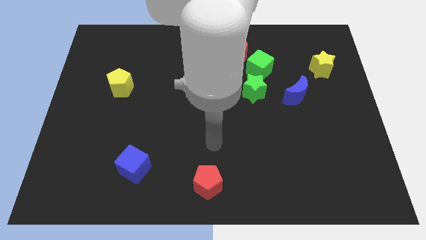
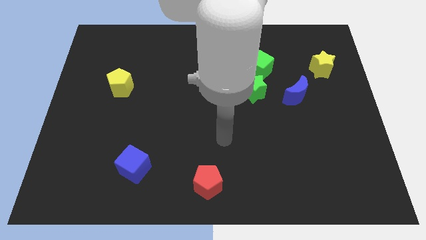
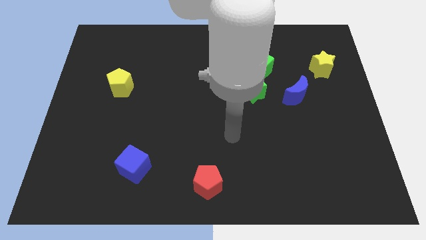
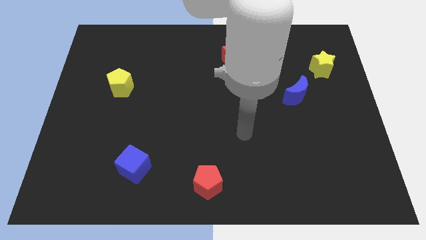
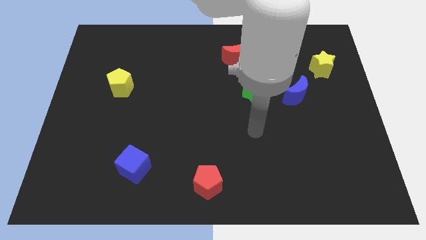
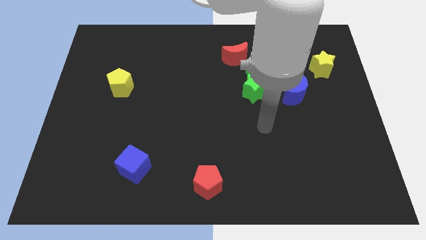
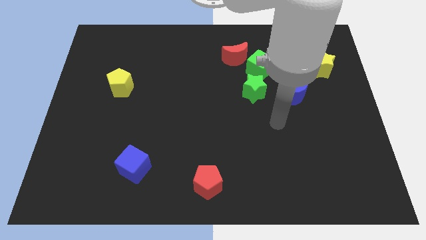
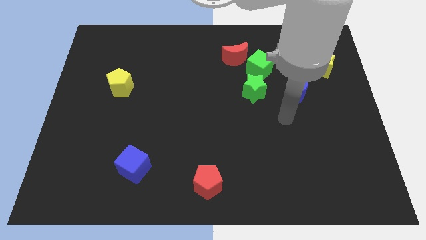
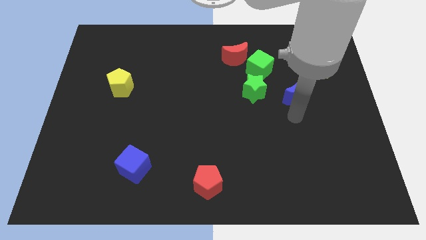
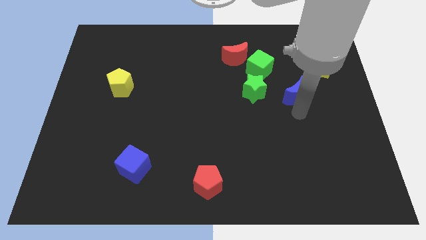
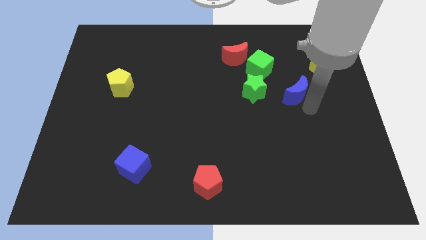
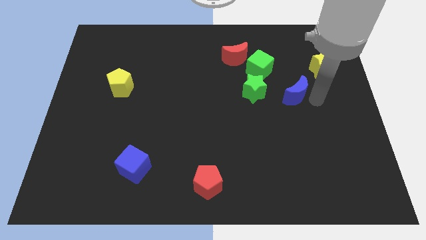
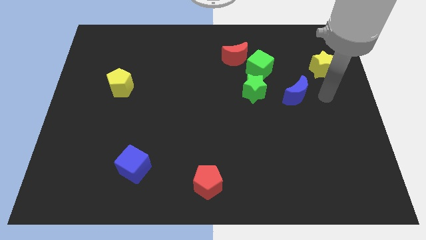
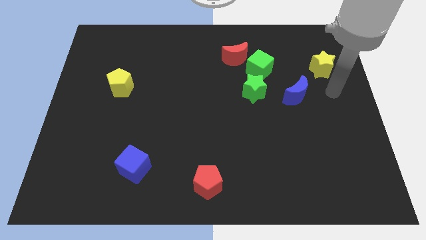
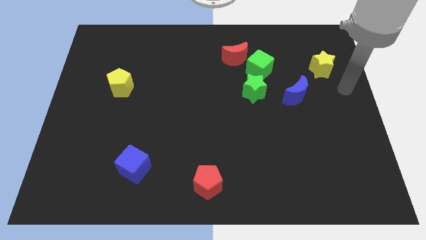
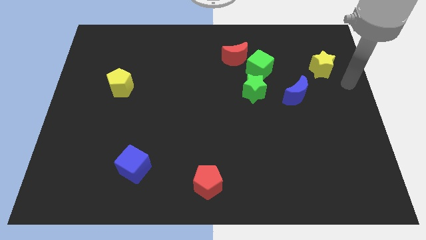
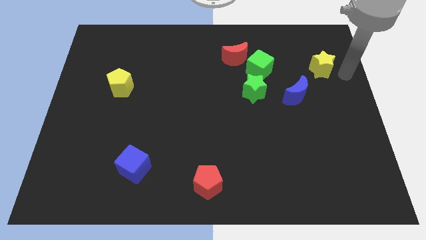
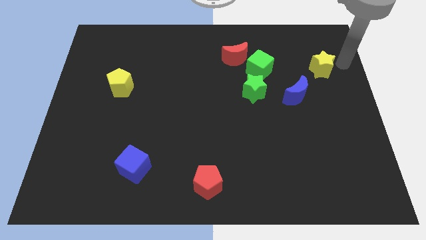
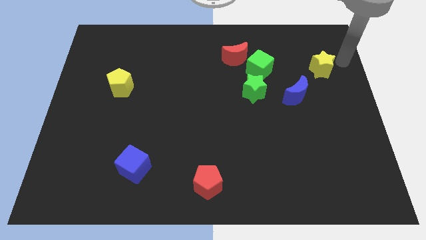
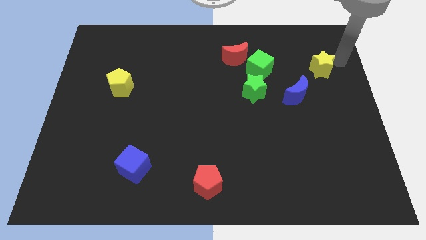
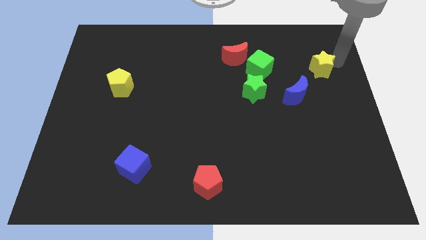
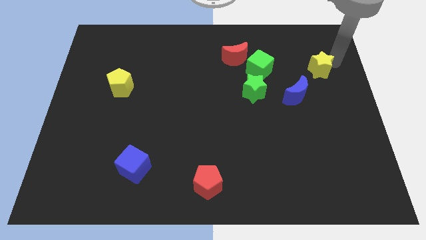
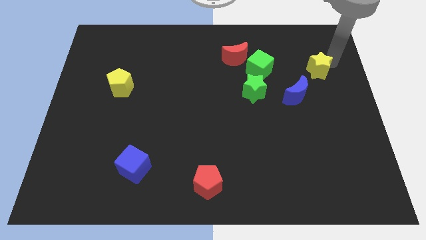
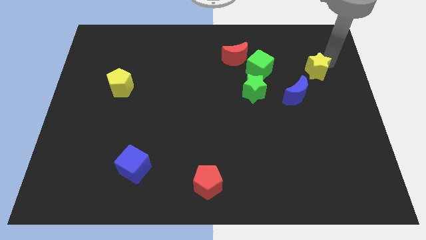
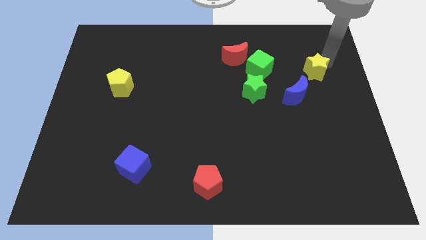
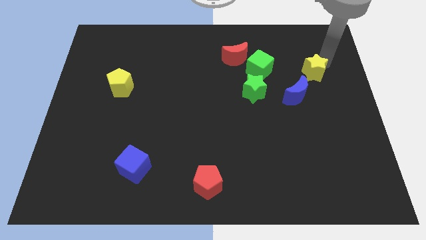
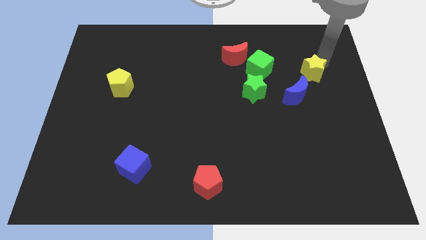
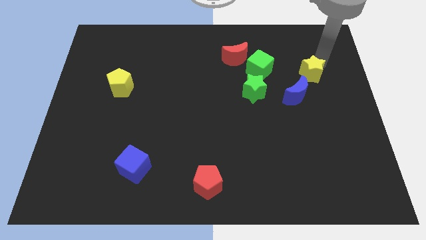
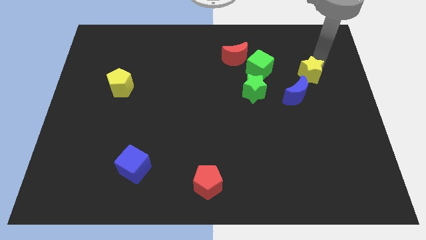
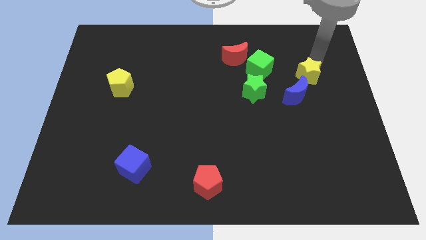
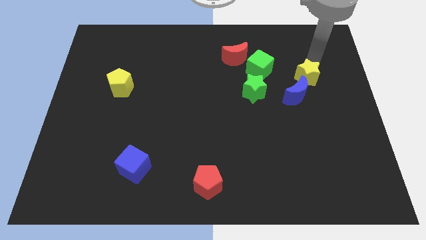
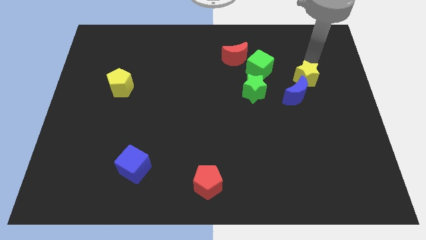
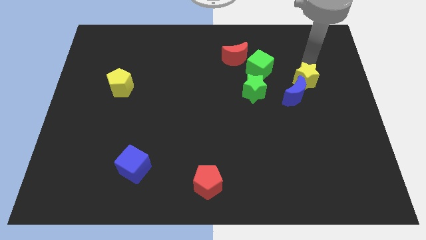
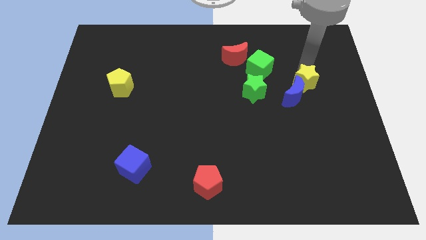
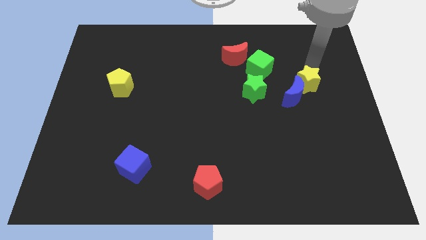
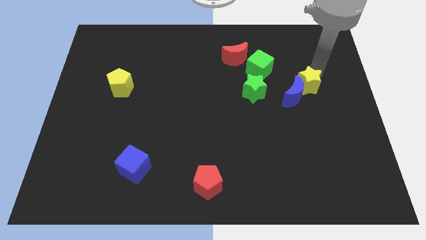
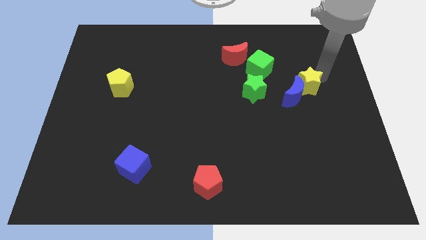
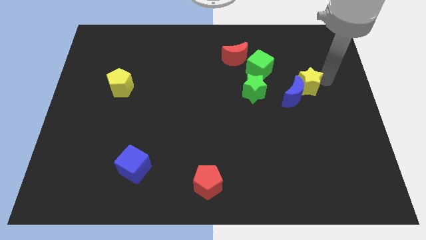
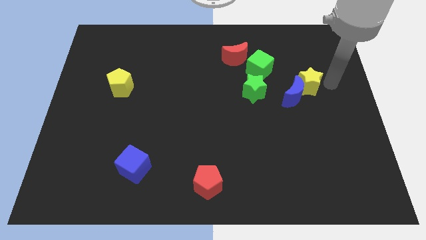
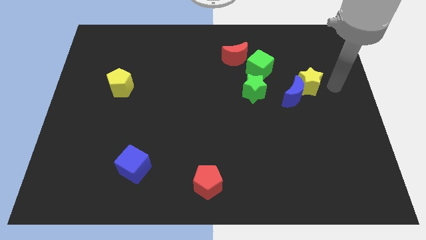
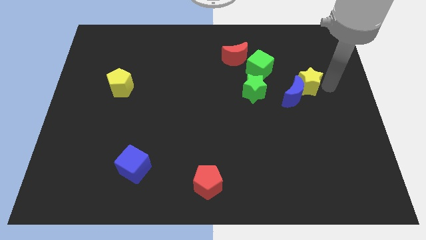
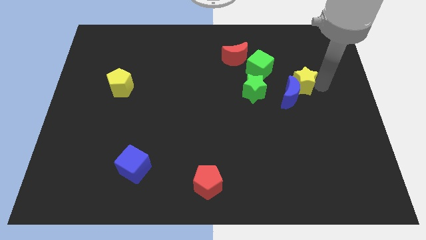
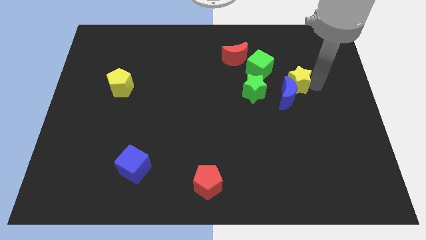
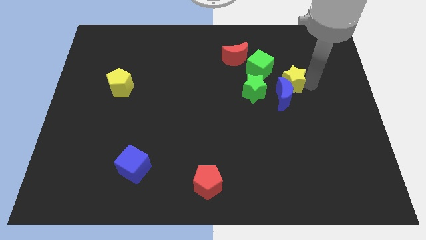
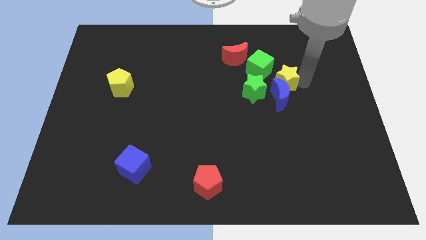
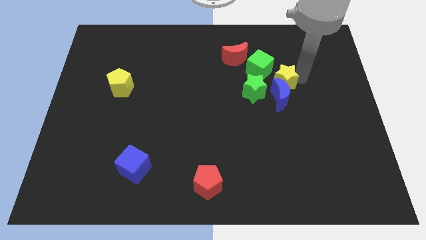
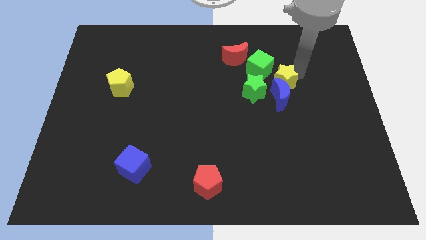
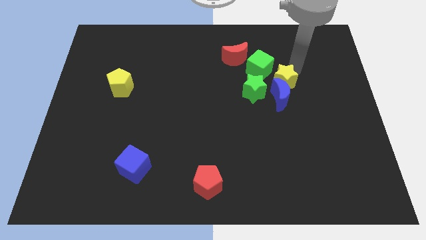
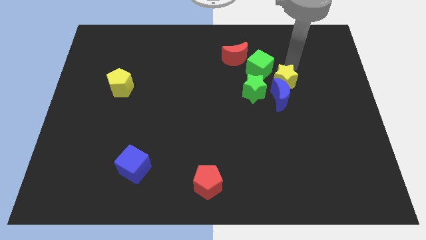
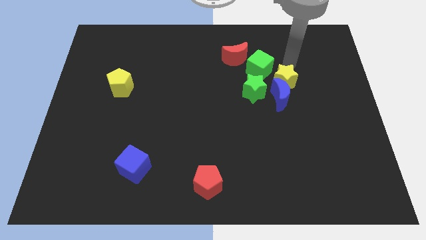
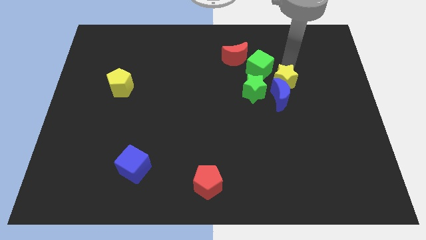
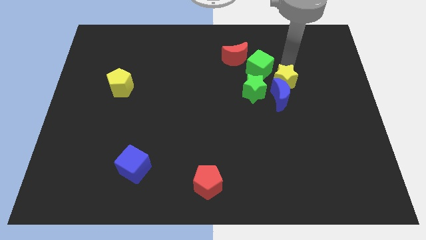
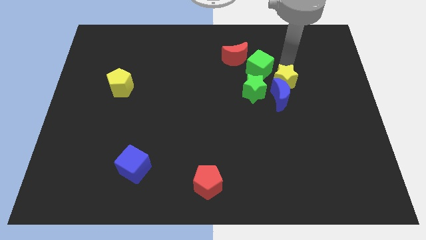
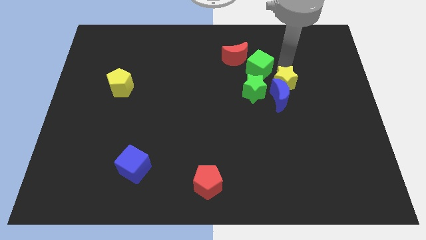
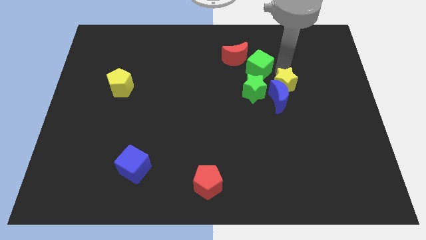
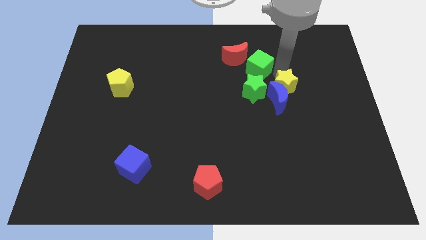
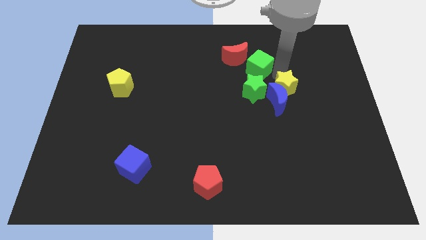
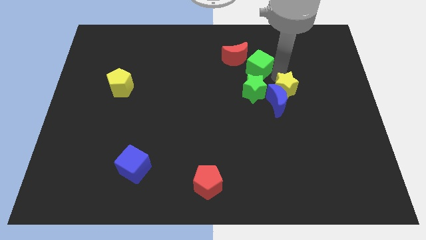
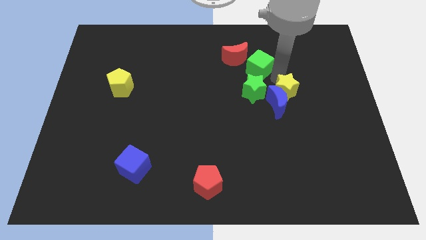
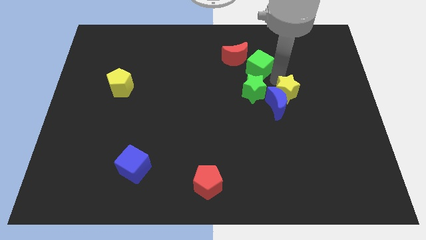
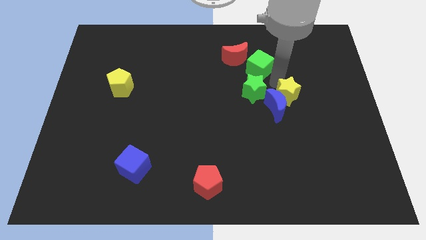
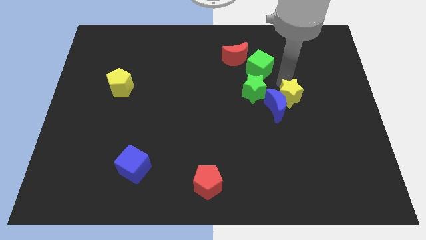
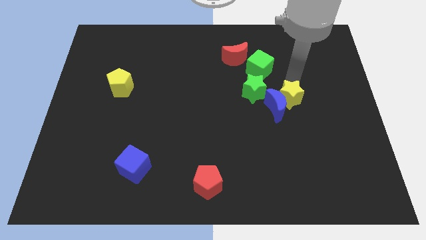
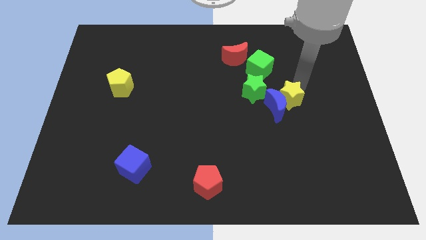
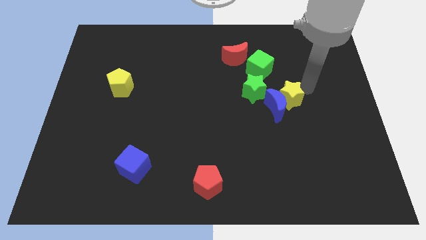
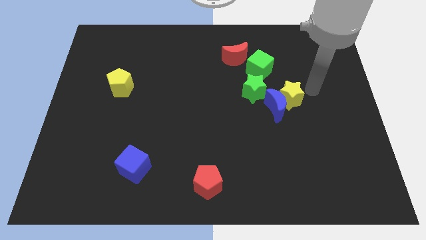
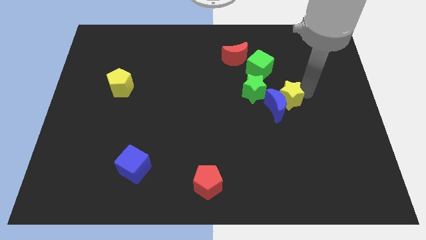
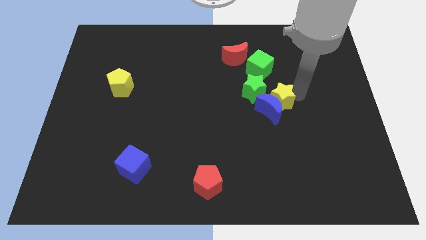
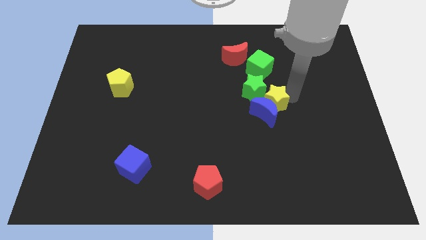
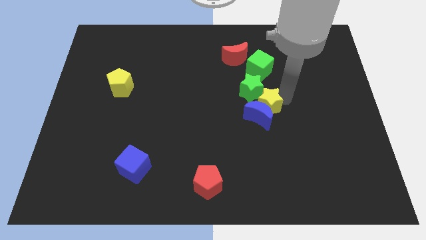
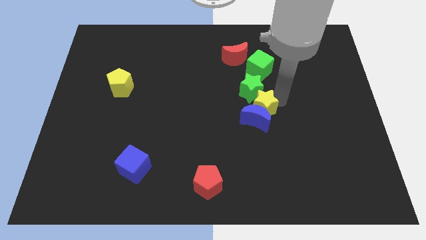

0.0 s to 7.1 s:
move the yellow star to the middle
